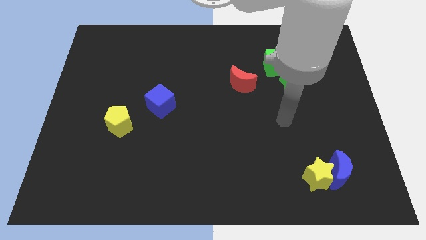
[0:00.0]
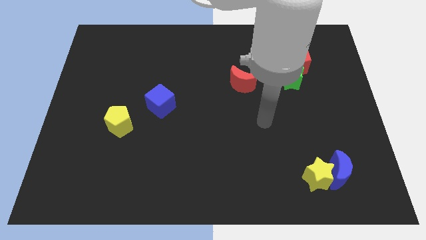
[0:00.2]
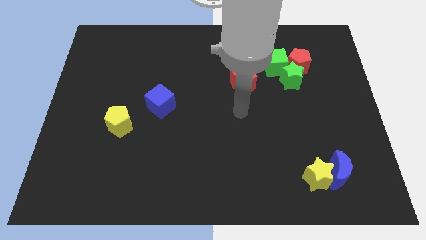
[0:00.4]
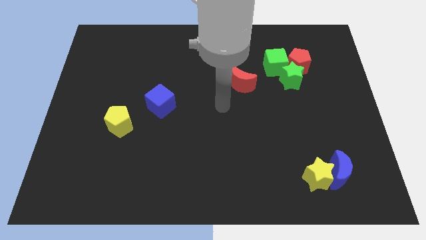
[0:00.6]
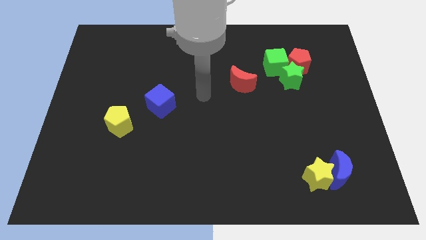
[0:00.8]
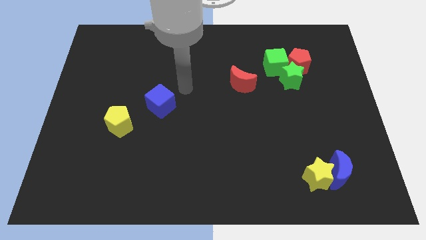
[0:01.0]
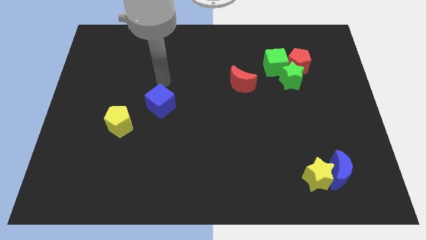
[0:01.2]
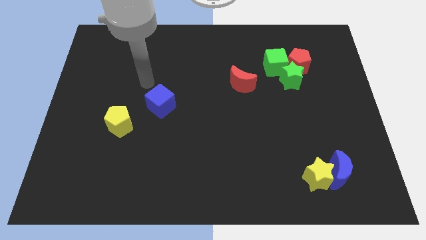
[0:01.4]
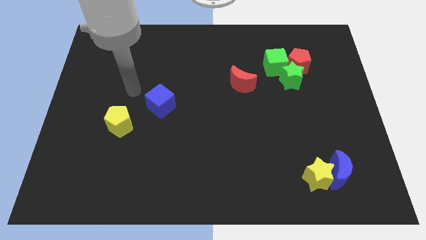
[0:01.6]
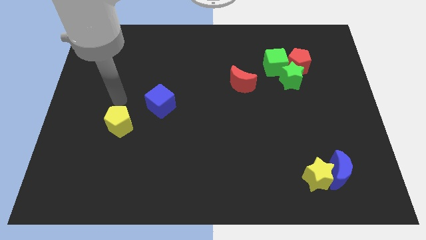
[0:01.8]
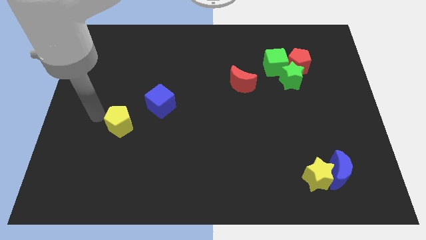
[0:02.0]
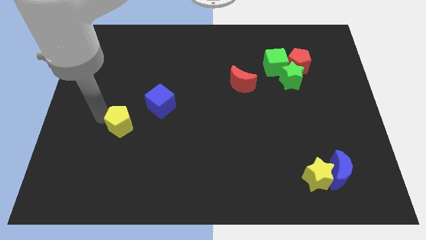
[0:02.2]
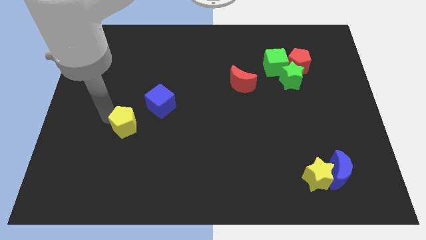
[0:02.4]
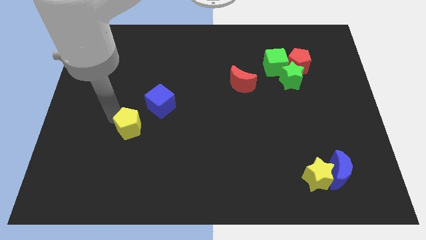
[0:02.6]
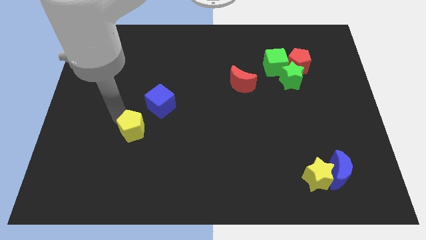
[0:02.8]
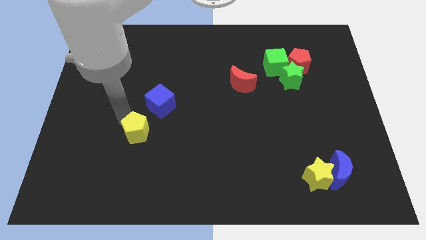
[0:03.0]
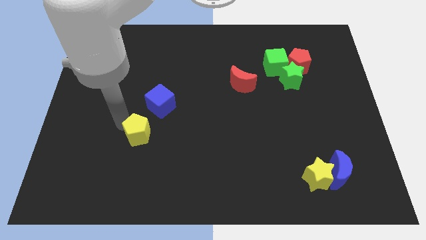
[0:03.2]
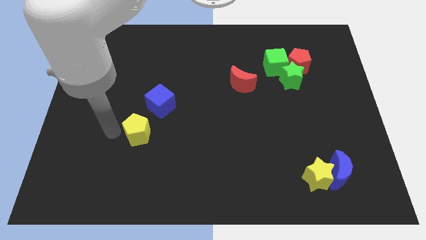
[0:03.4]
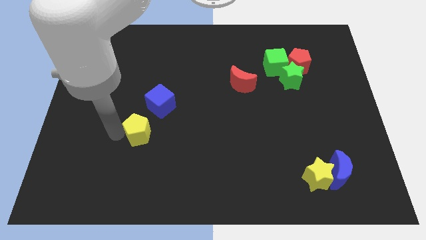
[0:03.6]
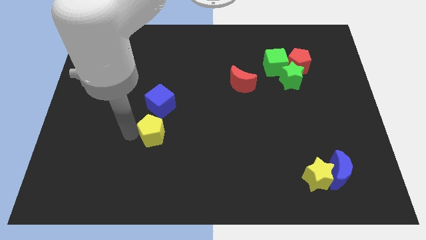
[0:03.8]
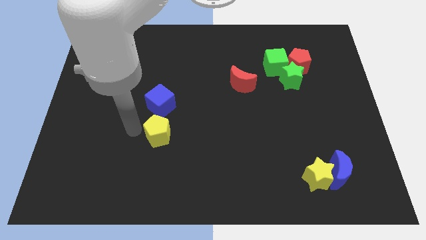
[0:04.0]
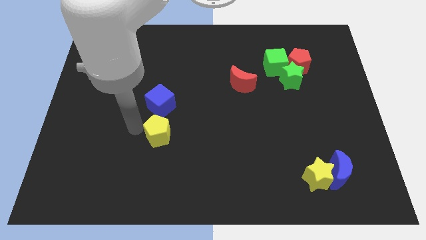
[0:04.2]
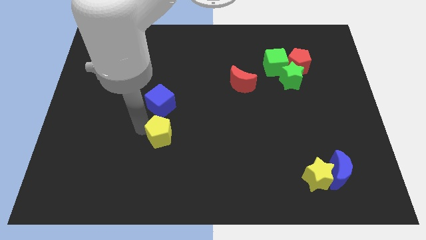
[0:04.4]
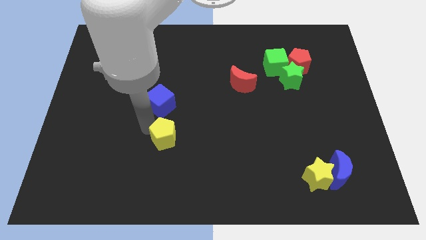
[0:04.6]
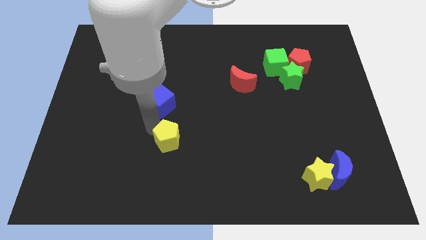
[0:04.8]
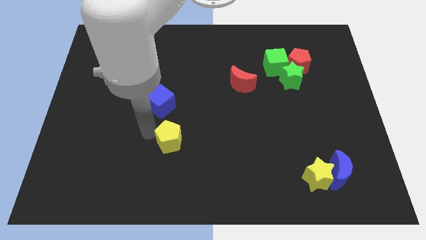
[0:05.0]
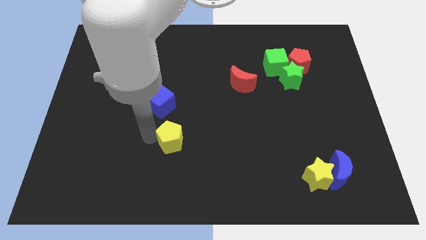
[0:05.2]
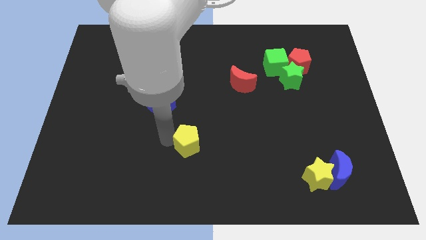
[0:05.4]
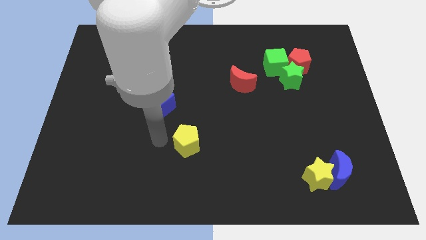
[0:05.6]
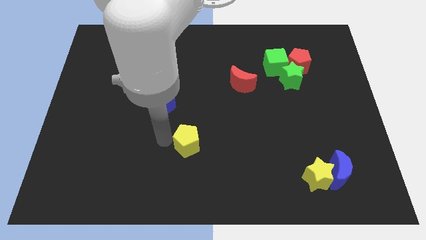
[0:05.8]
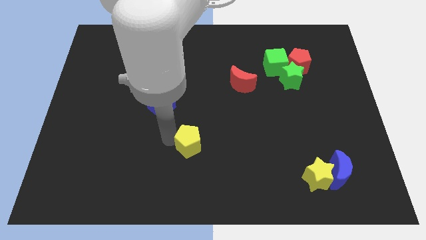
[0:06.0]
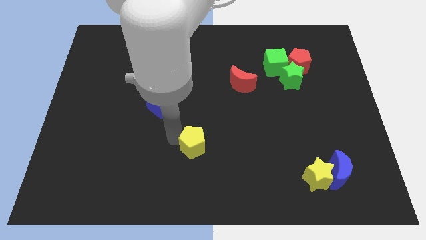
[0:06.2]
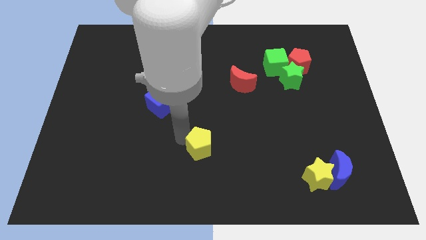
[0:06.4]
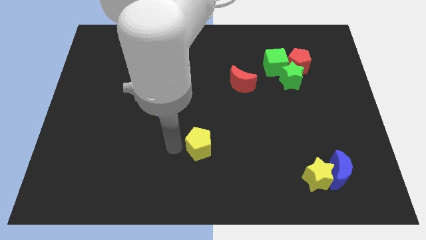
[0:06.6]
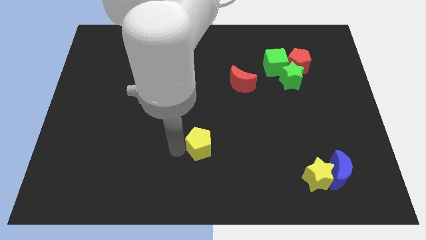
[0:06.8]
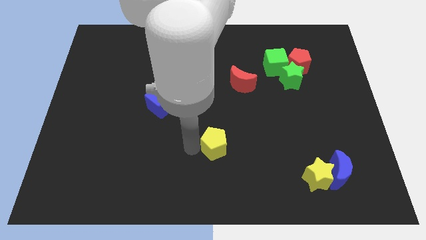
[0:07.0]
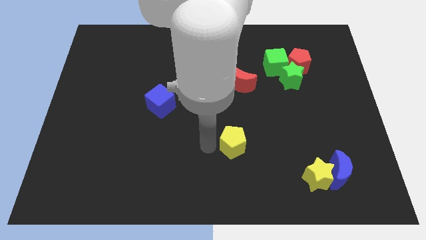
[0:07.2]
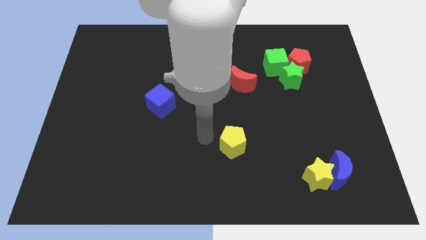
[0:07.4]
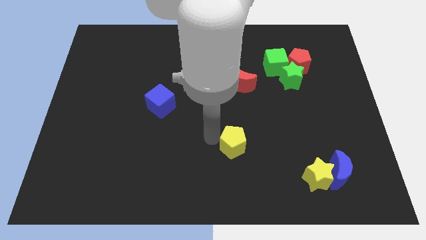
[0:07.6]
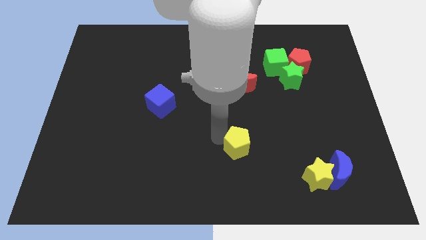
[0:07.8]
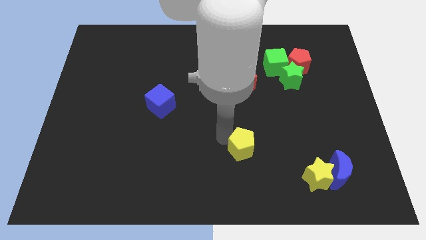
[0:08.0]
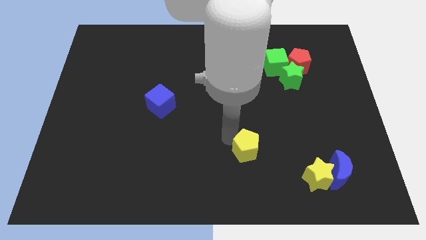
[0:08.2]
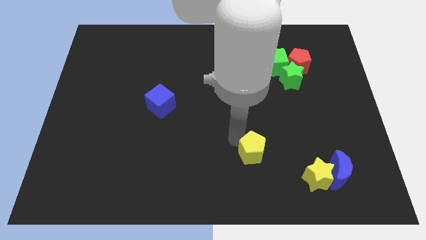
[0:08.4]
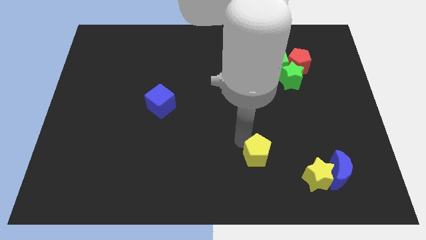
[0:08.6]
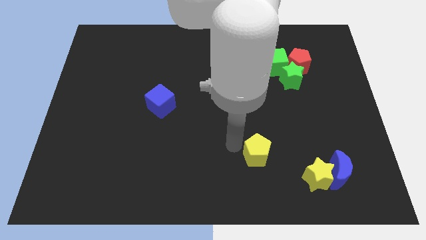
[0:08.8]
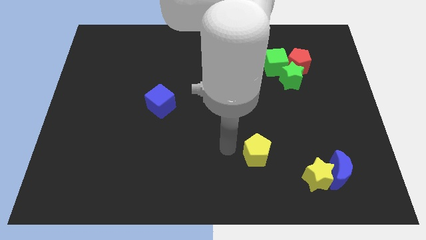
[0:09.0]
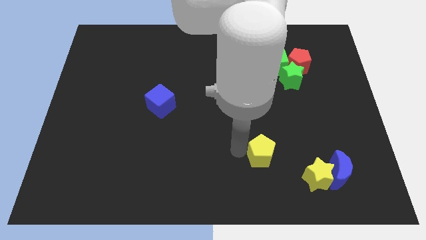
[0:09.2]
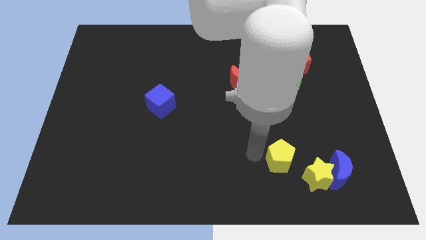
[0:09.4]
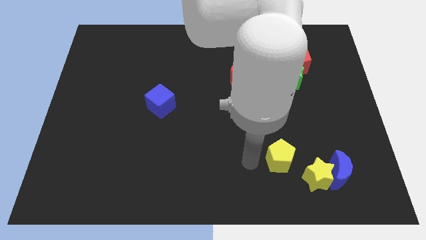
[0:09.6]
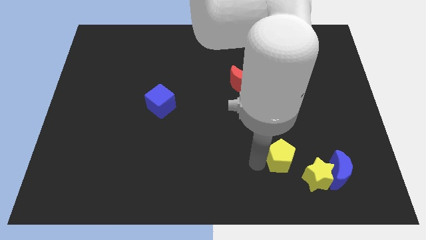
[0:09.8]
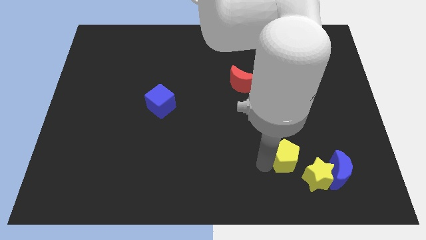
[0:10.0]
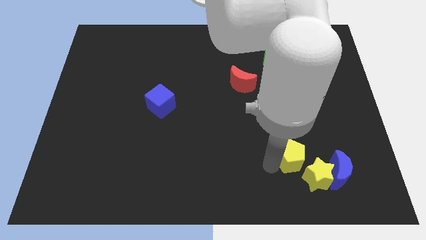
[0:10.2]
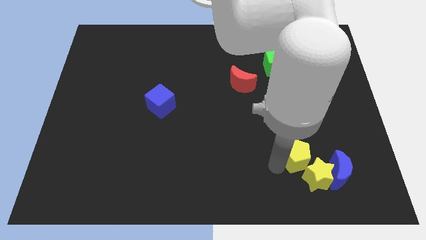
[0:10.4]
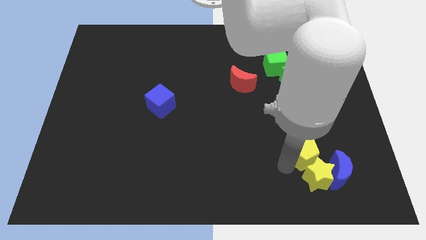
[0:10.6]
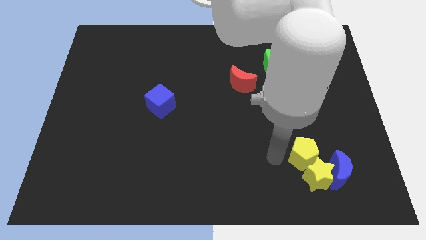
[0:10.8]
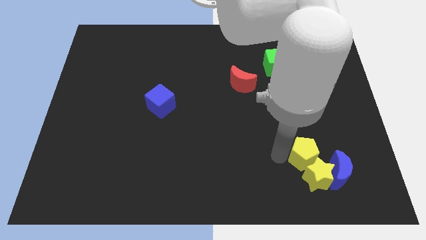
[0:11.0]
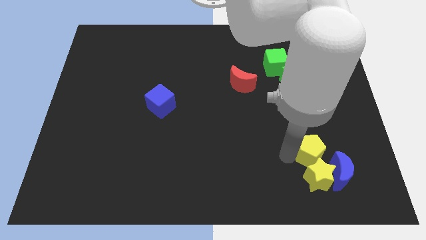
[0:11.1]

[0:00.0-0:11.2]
move the yellow pentagon to the top right of the yellow star

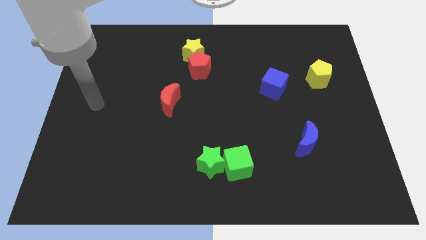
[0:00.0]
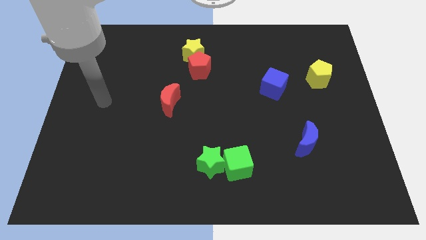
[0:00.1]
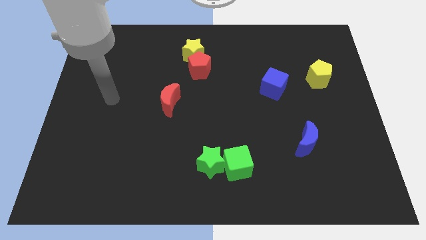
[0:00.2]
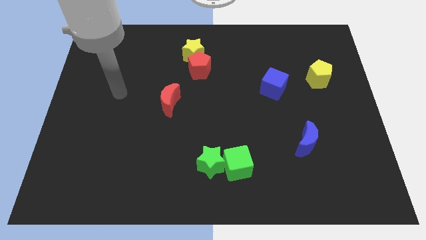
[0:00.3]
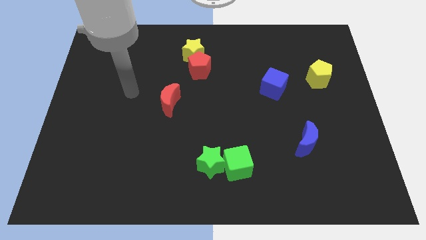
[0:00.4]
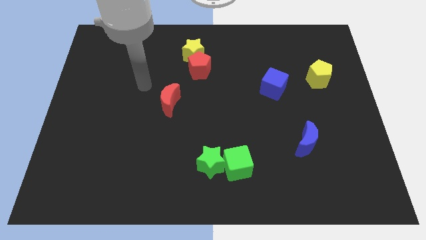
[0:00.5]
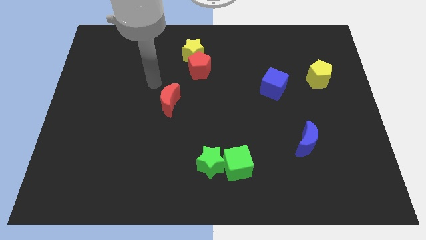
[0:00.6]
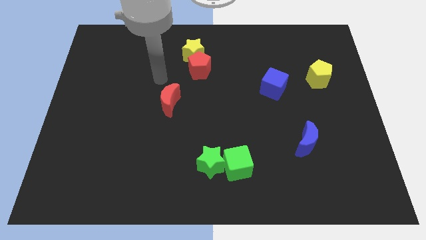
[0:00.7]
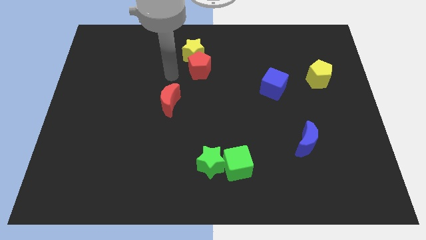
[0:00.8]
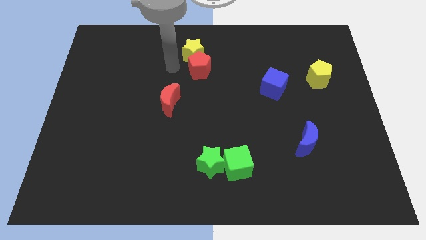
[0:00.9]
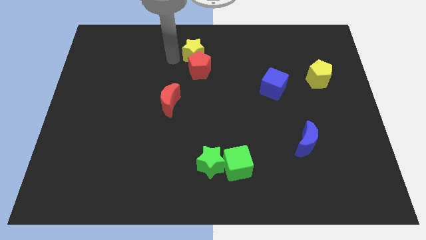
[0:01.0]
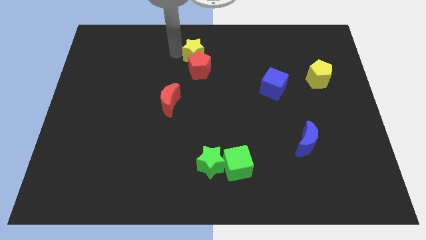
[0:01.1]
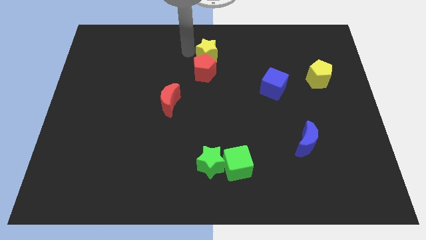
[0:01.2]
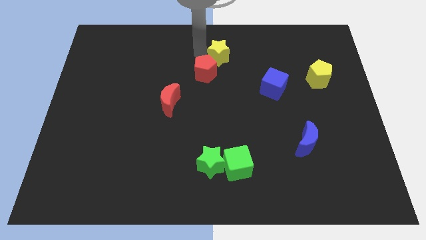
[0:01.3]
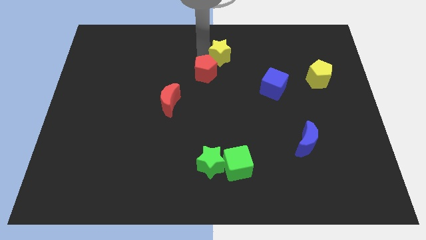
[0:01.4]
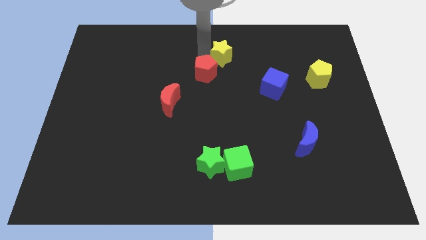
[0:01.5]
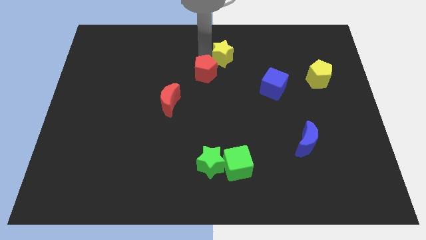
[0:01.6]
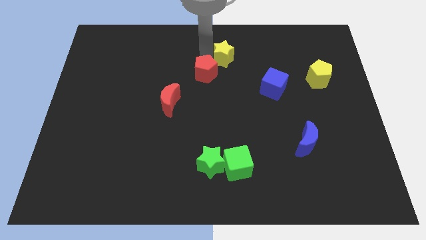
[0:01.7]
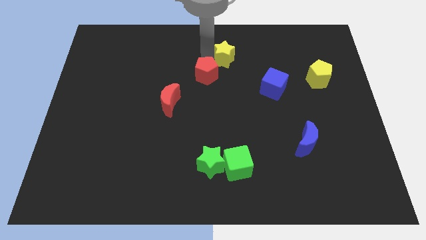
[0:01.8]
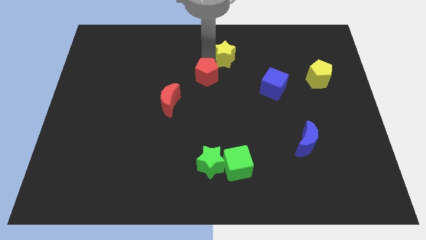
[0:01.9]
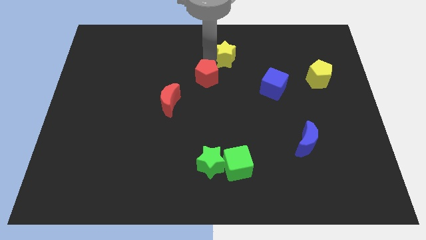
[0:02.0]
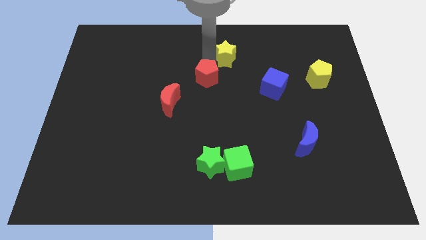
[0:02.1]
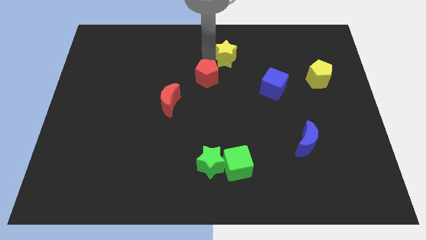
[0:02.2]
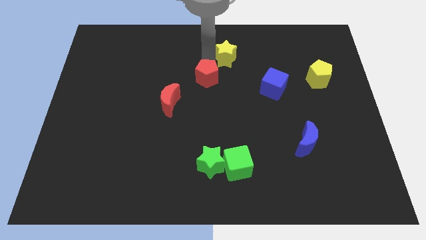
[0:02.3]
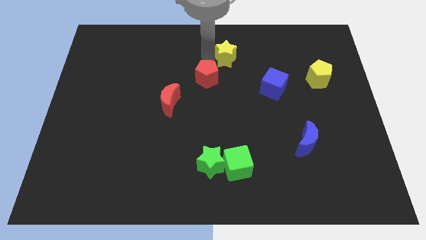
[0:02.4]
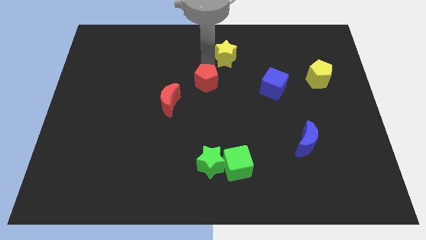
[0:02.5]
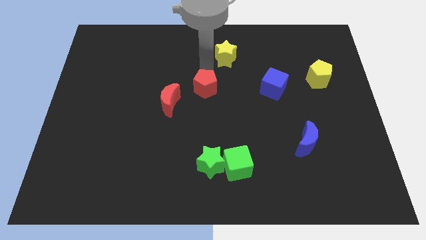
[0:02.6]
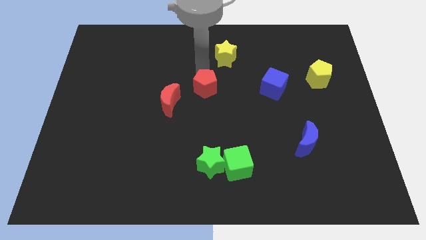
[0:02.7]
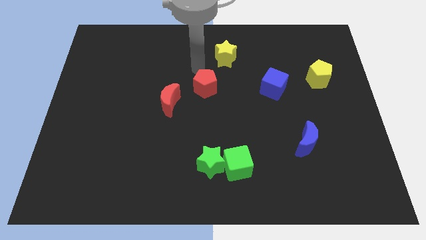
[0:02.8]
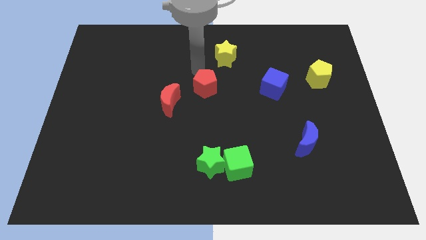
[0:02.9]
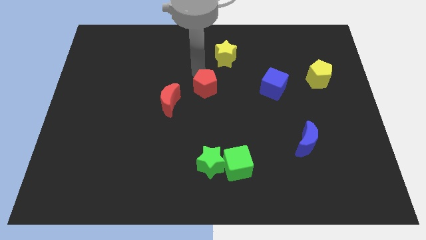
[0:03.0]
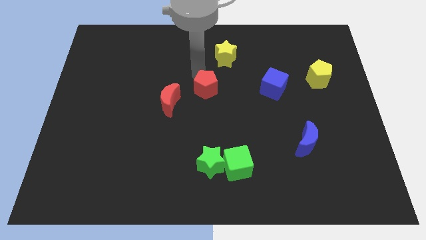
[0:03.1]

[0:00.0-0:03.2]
push the red pentagon just right of the red moon
